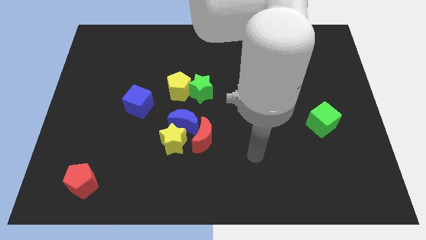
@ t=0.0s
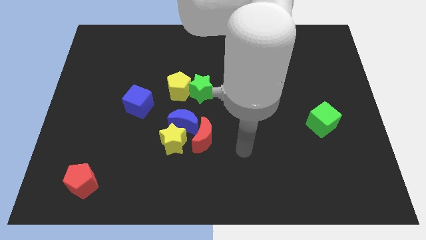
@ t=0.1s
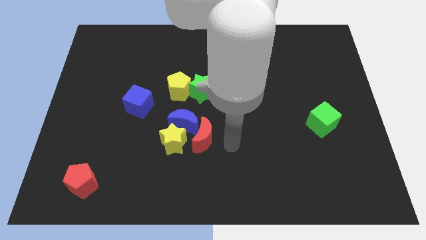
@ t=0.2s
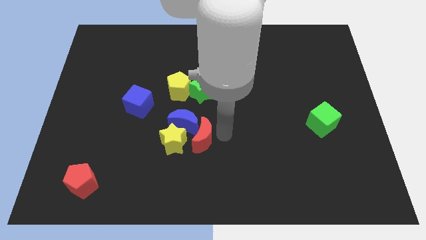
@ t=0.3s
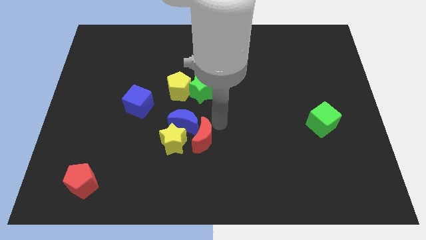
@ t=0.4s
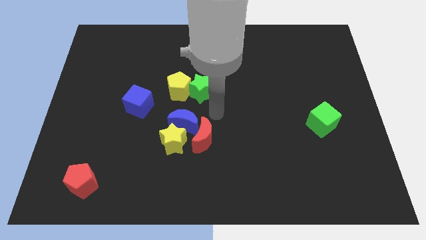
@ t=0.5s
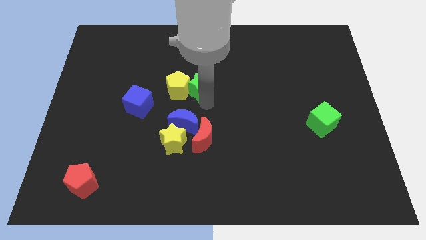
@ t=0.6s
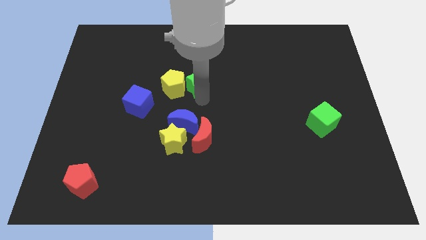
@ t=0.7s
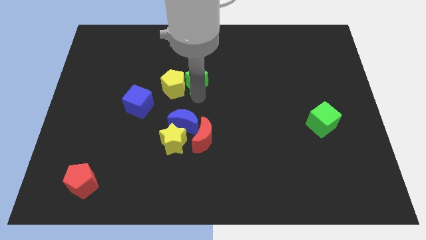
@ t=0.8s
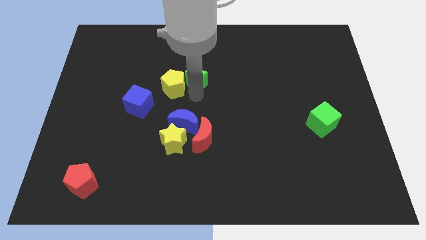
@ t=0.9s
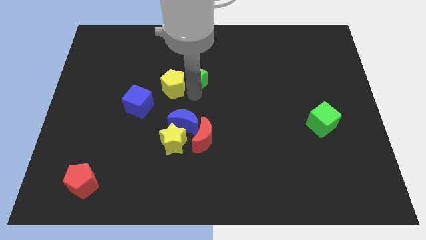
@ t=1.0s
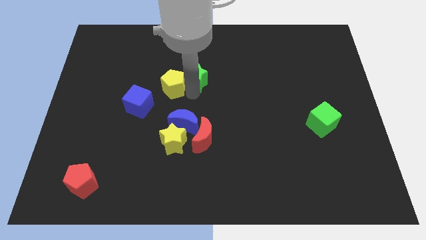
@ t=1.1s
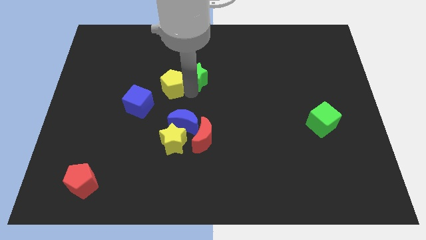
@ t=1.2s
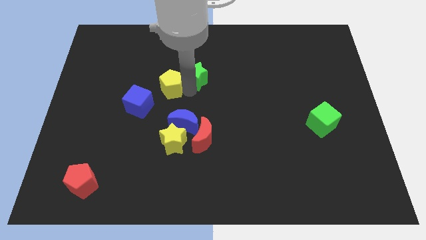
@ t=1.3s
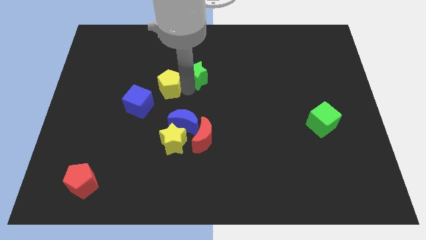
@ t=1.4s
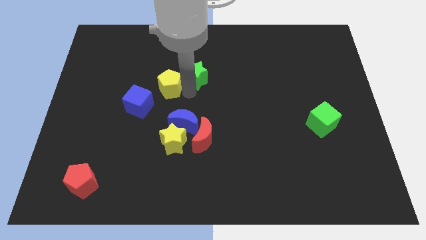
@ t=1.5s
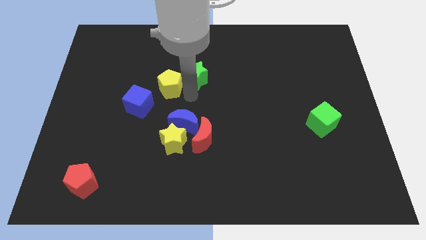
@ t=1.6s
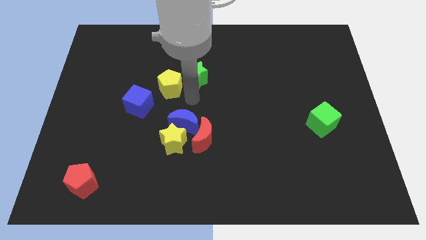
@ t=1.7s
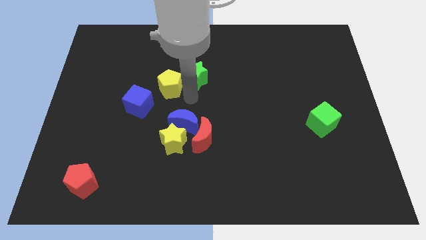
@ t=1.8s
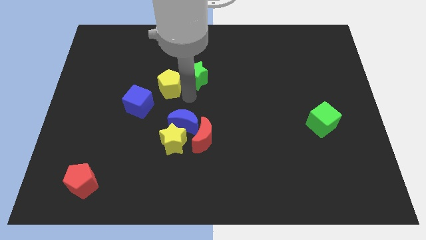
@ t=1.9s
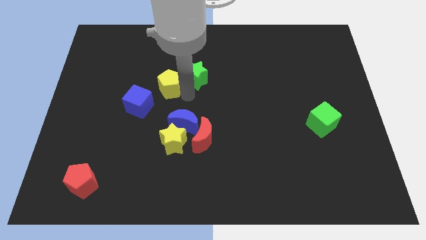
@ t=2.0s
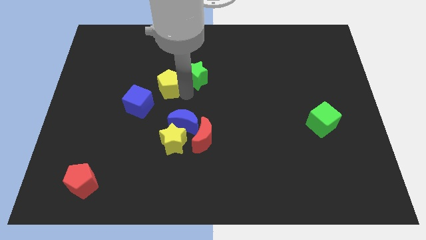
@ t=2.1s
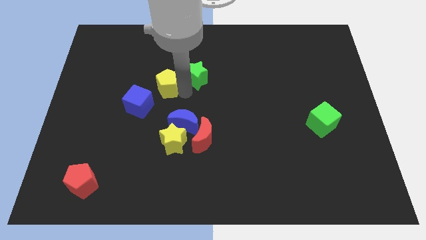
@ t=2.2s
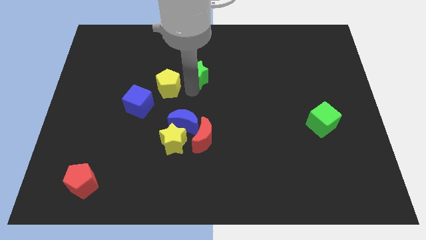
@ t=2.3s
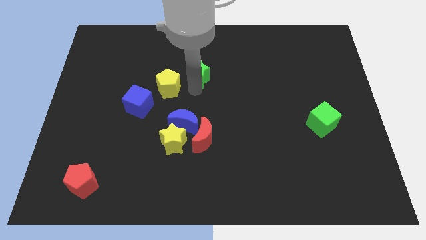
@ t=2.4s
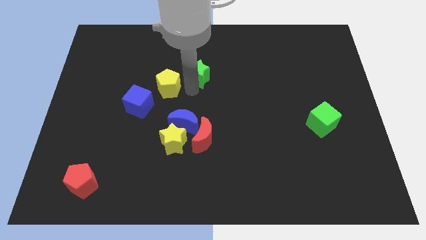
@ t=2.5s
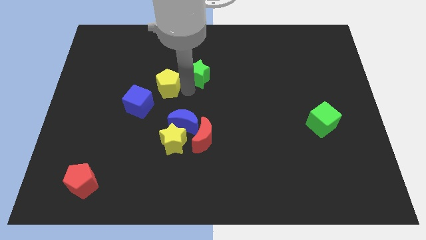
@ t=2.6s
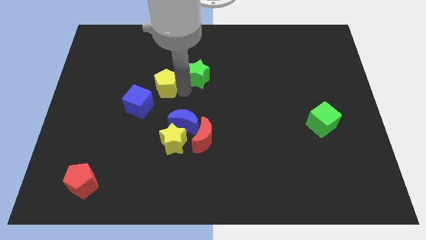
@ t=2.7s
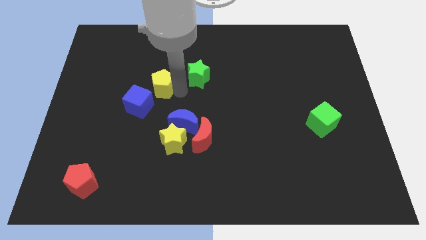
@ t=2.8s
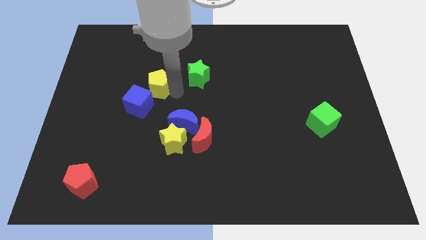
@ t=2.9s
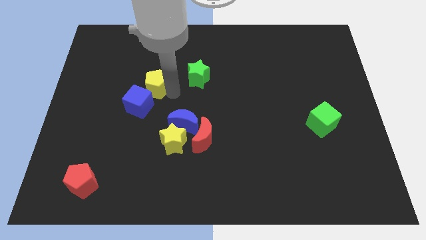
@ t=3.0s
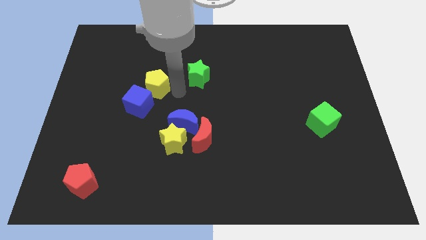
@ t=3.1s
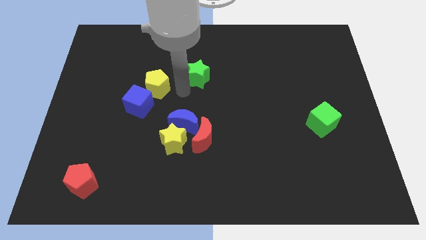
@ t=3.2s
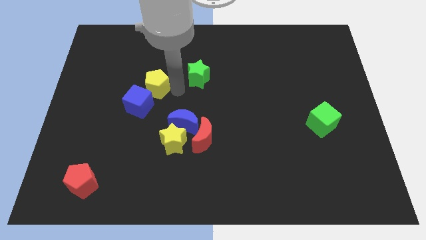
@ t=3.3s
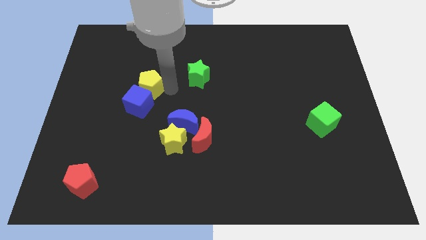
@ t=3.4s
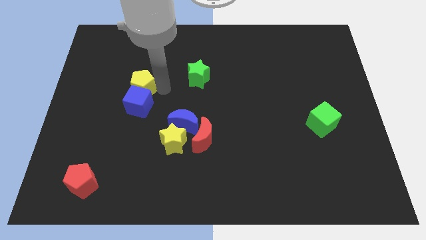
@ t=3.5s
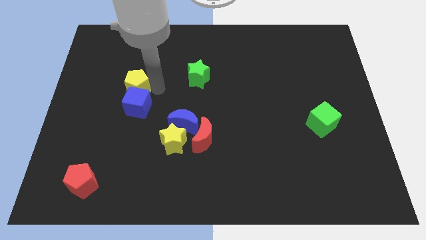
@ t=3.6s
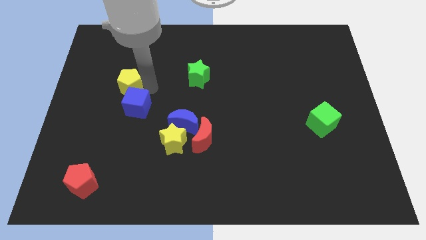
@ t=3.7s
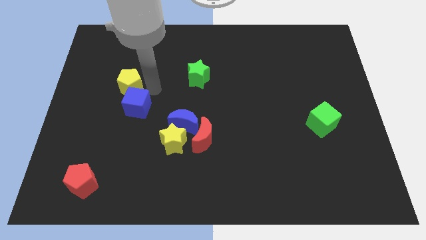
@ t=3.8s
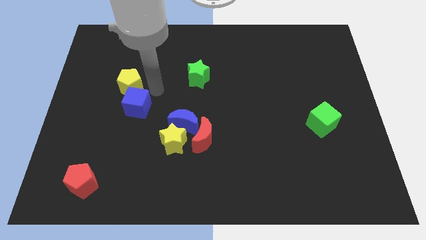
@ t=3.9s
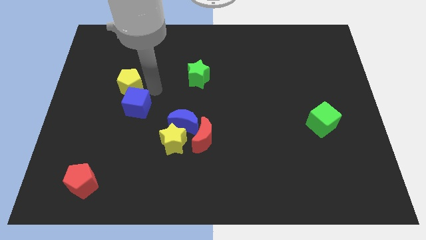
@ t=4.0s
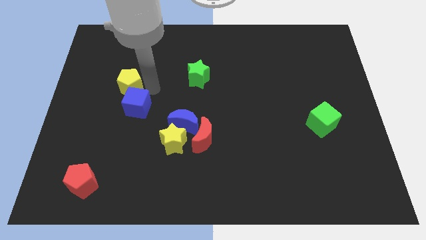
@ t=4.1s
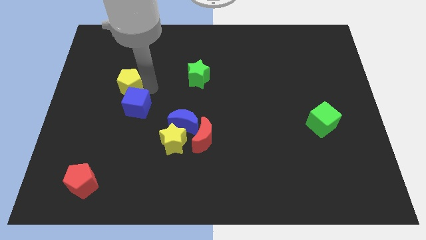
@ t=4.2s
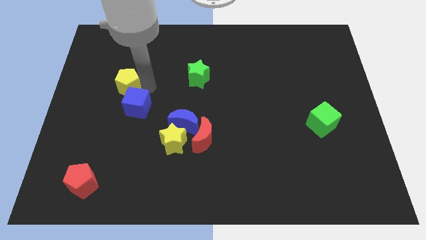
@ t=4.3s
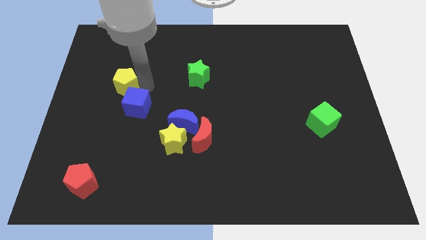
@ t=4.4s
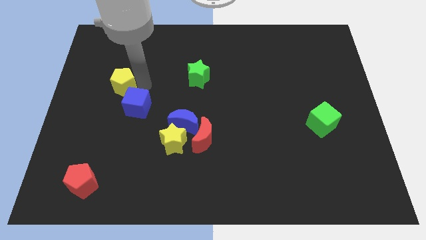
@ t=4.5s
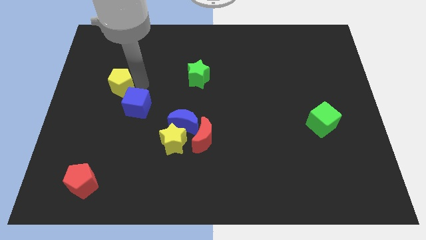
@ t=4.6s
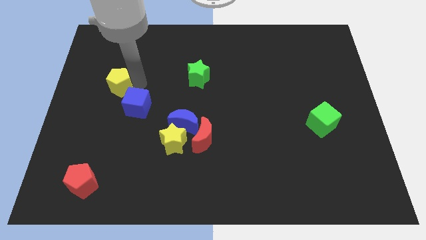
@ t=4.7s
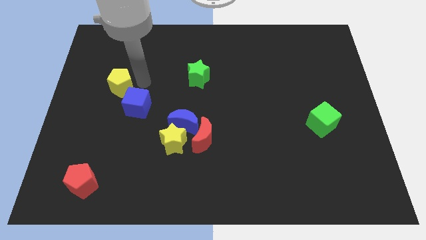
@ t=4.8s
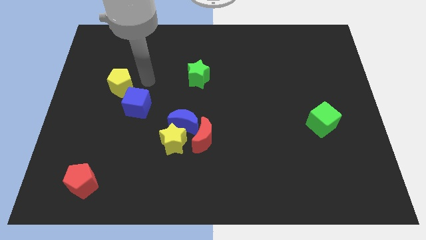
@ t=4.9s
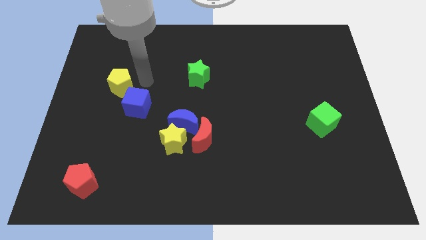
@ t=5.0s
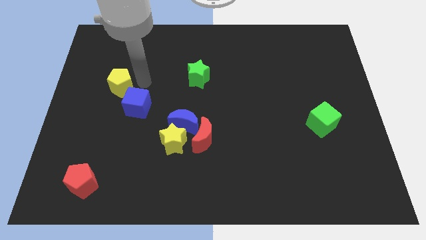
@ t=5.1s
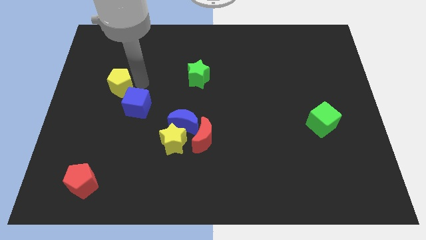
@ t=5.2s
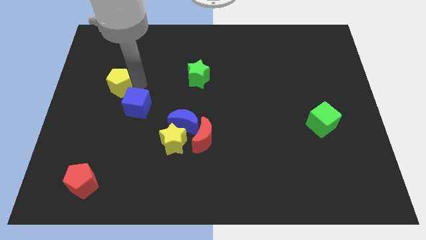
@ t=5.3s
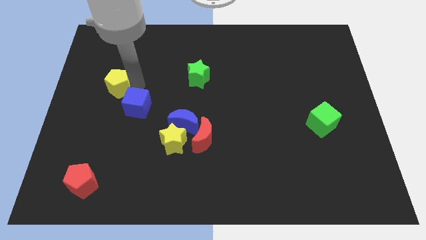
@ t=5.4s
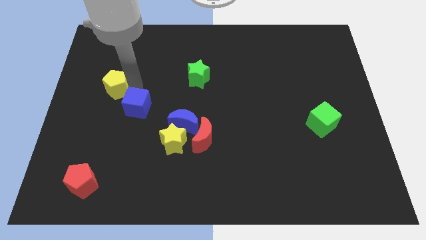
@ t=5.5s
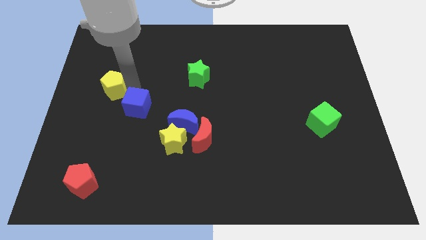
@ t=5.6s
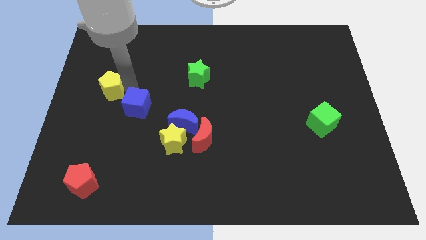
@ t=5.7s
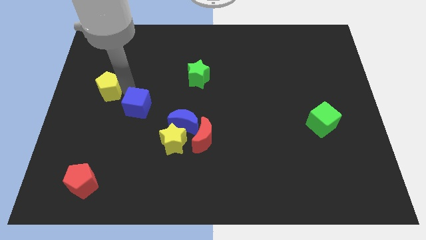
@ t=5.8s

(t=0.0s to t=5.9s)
move the yellow pentagon to the center left

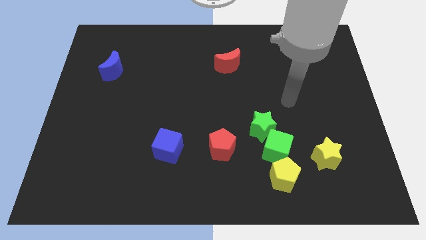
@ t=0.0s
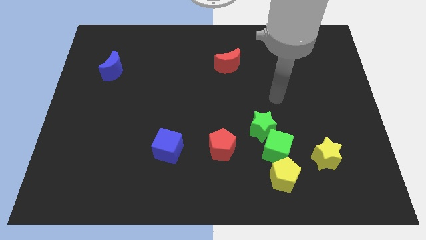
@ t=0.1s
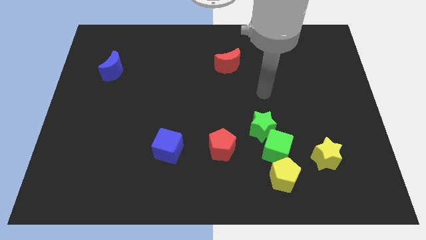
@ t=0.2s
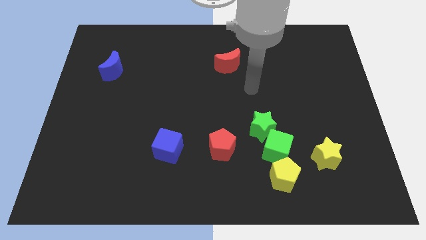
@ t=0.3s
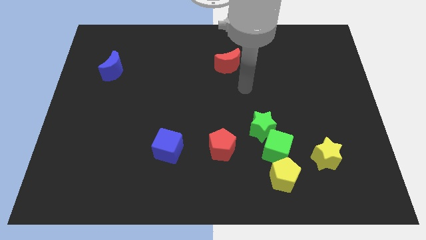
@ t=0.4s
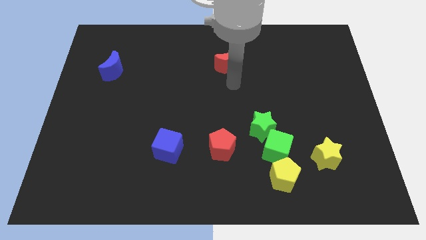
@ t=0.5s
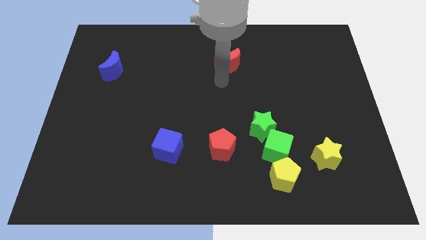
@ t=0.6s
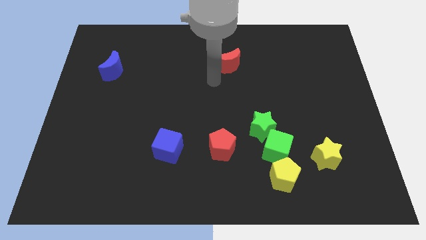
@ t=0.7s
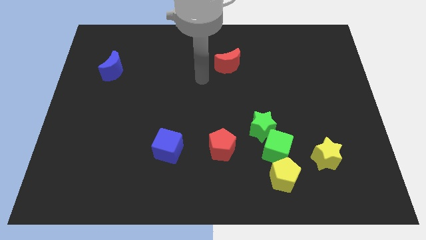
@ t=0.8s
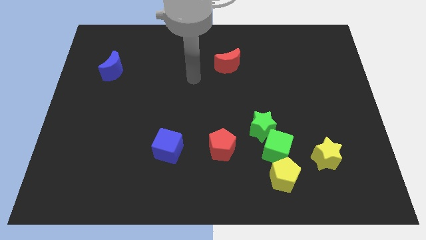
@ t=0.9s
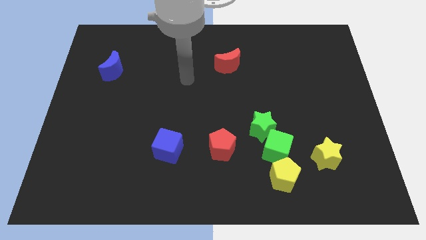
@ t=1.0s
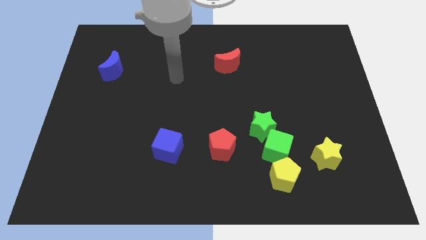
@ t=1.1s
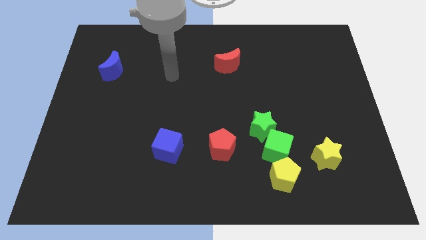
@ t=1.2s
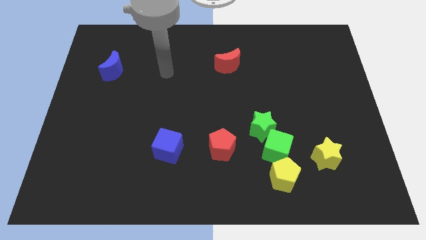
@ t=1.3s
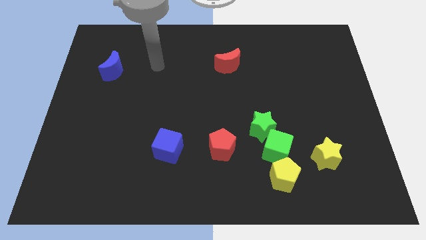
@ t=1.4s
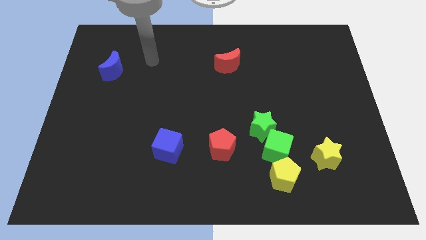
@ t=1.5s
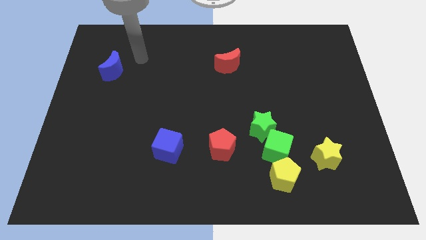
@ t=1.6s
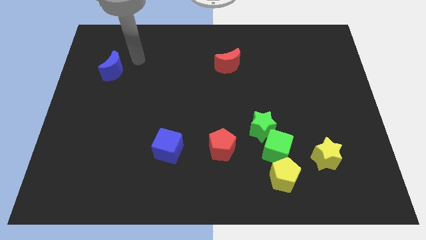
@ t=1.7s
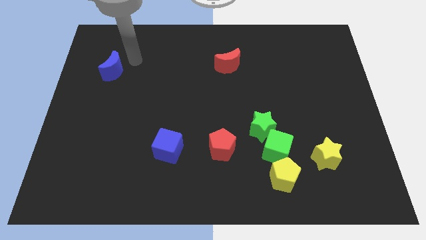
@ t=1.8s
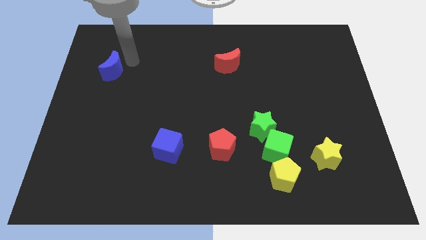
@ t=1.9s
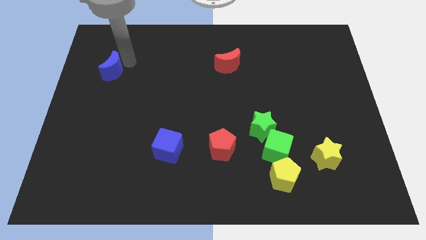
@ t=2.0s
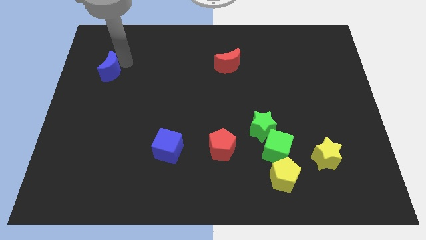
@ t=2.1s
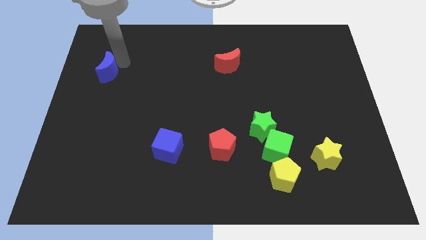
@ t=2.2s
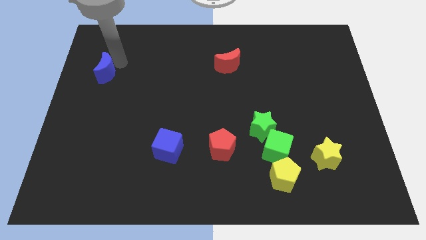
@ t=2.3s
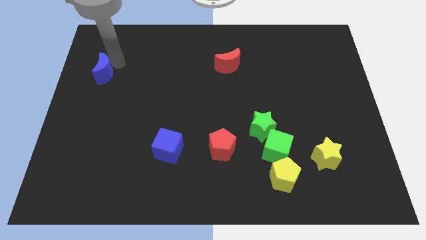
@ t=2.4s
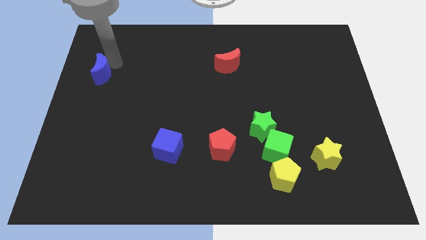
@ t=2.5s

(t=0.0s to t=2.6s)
slide the blue moon to the left side of the board
